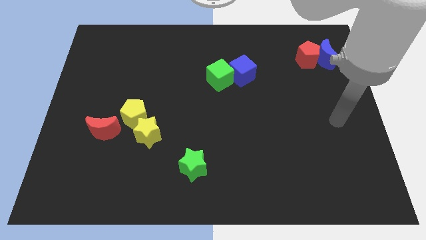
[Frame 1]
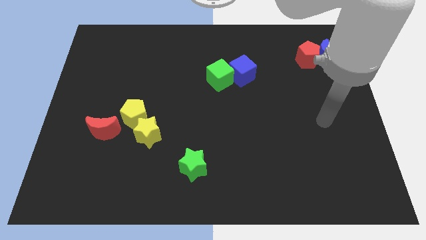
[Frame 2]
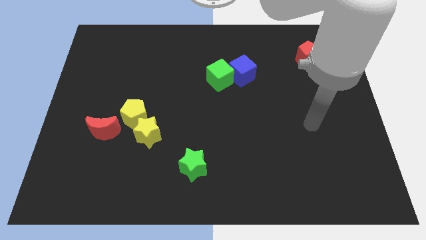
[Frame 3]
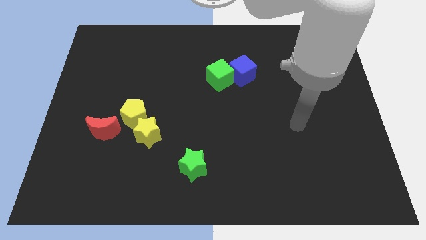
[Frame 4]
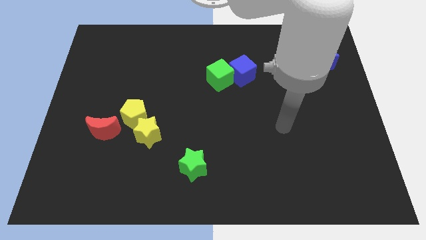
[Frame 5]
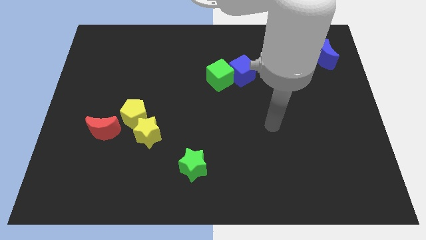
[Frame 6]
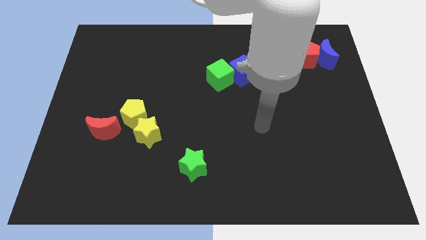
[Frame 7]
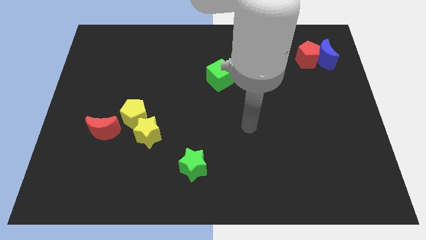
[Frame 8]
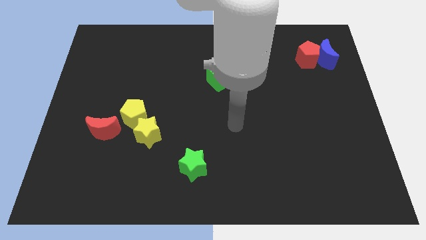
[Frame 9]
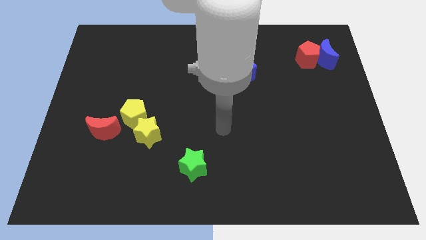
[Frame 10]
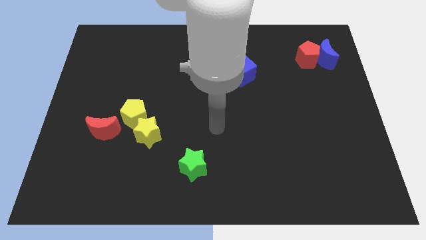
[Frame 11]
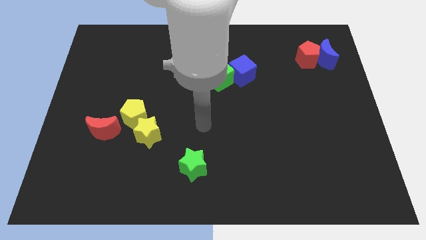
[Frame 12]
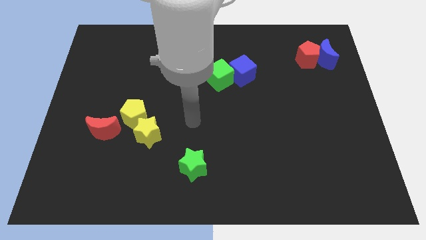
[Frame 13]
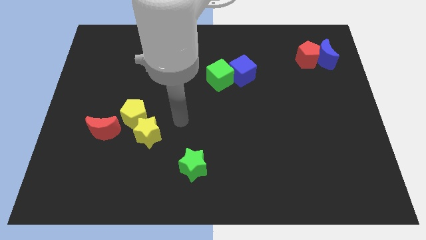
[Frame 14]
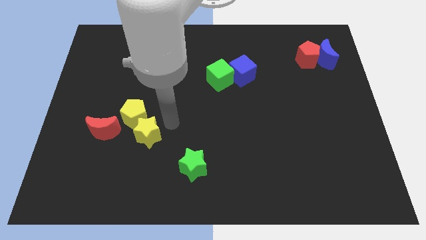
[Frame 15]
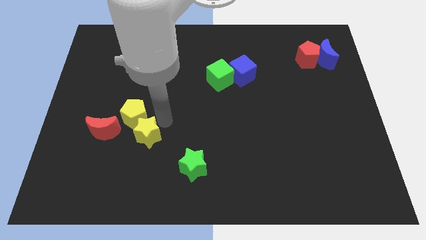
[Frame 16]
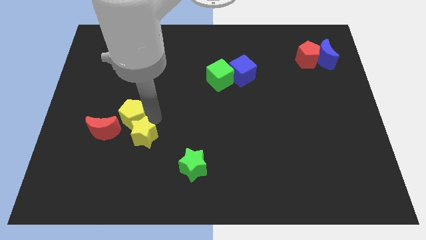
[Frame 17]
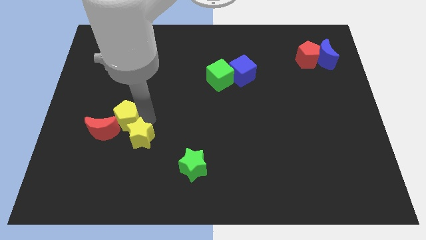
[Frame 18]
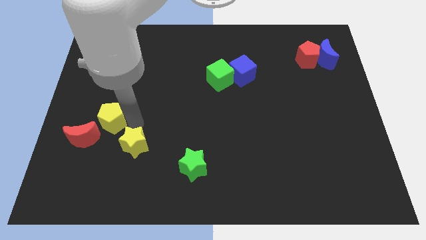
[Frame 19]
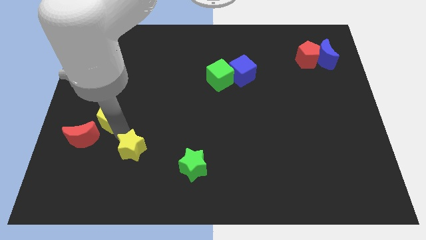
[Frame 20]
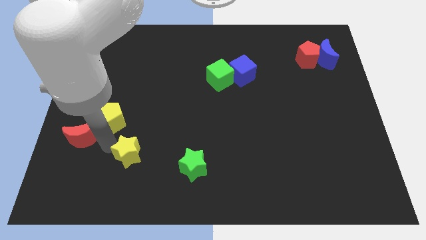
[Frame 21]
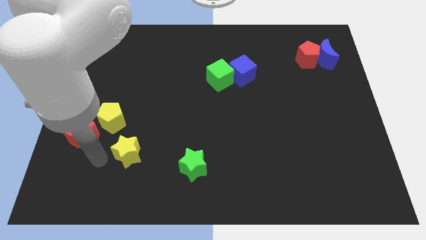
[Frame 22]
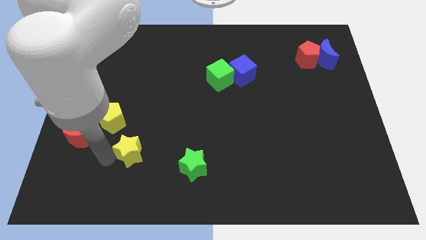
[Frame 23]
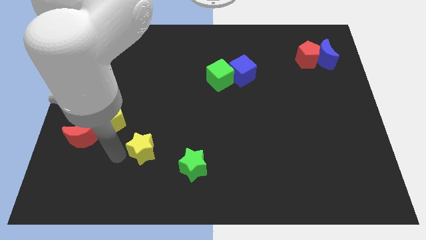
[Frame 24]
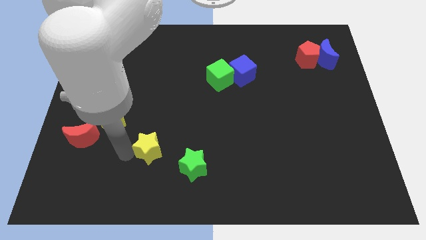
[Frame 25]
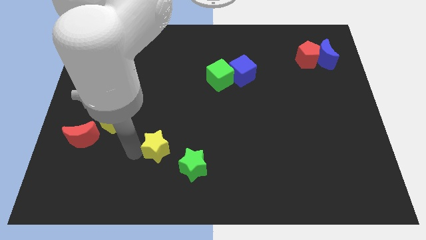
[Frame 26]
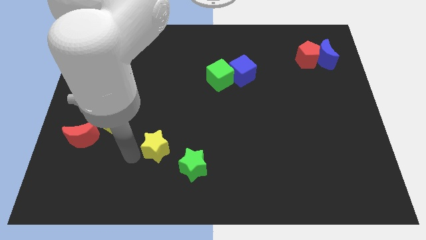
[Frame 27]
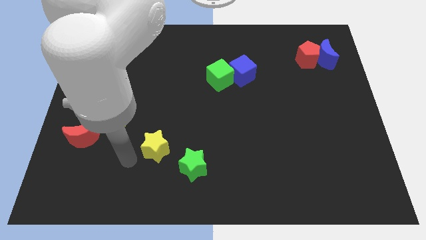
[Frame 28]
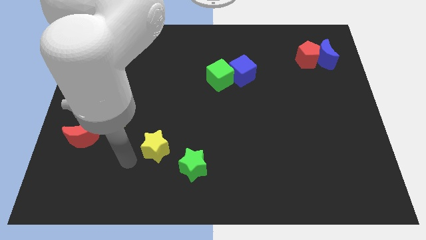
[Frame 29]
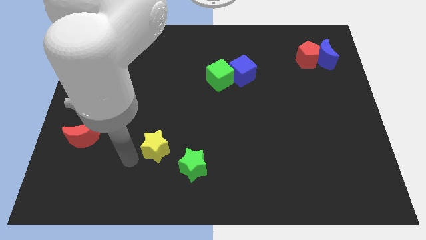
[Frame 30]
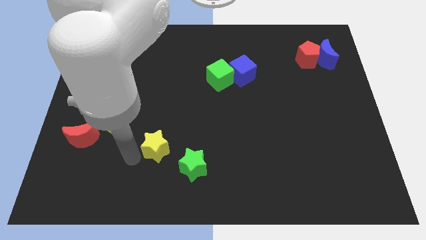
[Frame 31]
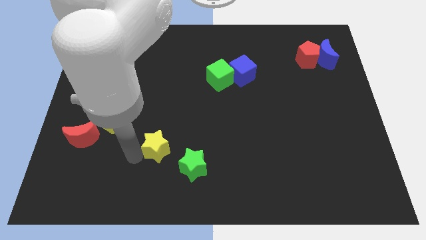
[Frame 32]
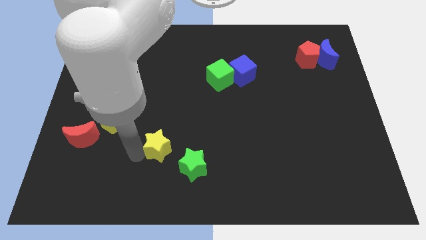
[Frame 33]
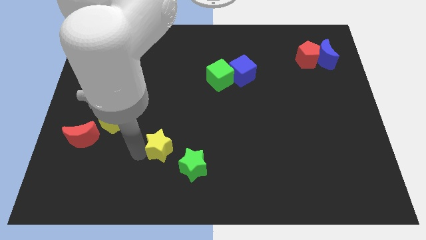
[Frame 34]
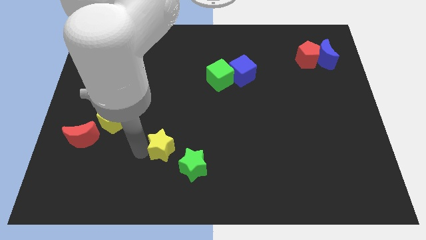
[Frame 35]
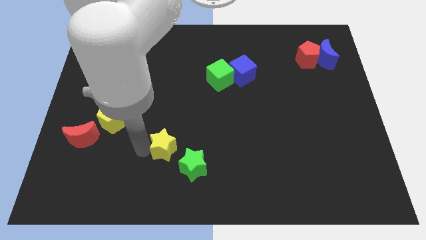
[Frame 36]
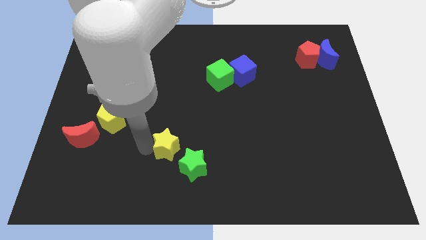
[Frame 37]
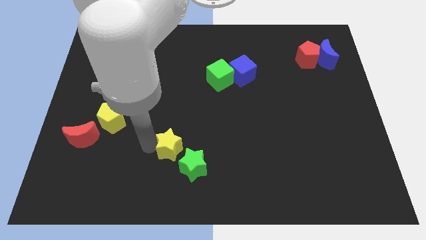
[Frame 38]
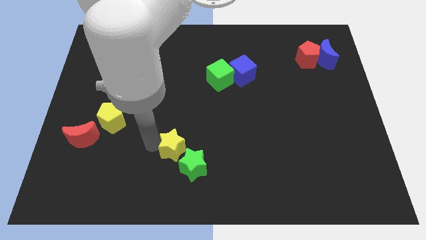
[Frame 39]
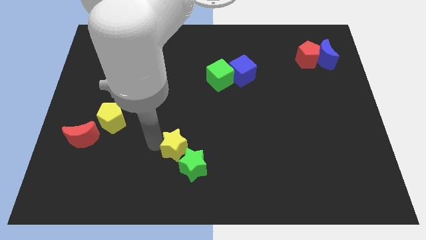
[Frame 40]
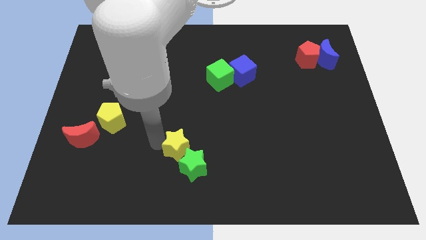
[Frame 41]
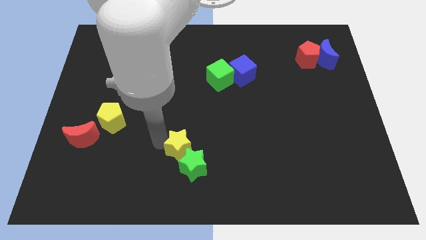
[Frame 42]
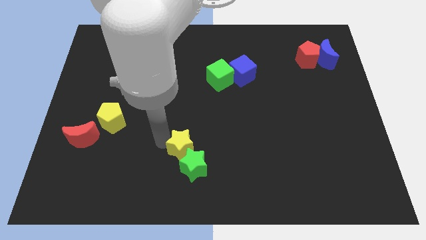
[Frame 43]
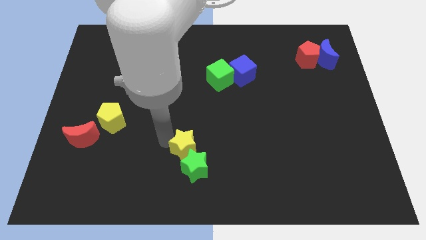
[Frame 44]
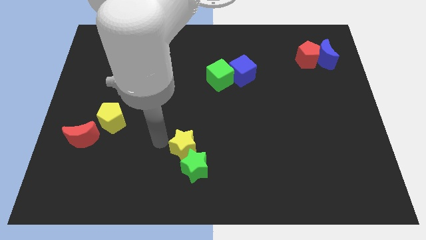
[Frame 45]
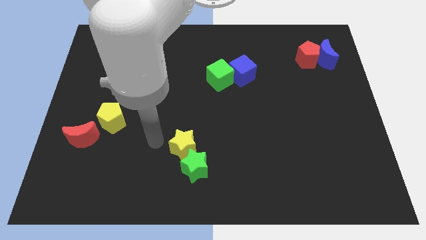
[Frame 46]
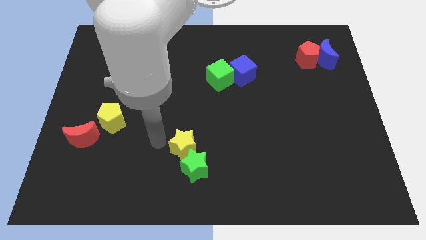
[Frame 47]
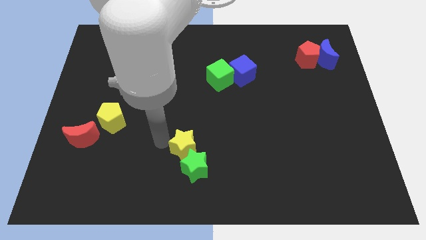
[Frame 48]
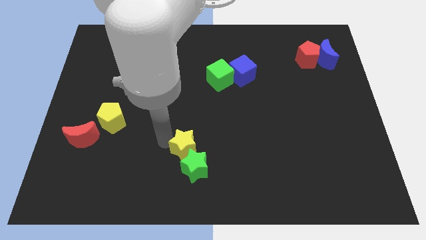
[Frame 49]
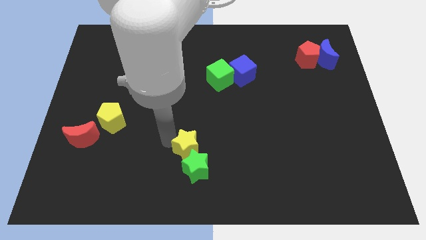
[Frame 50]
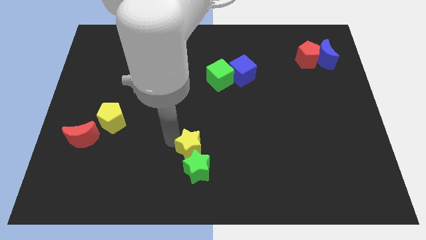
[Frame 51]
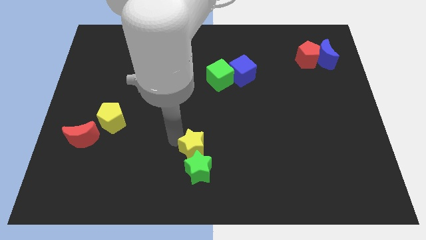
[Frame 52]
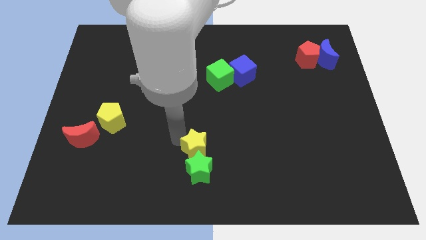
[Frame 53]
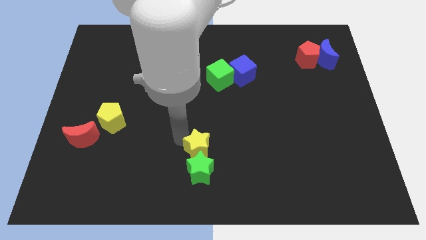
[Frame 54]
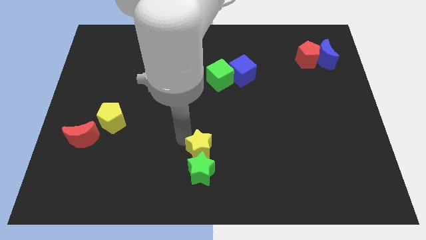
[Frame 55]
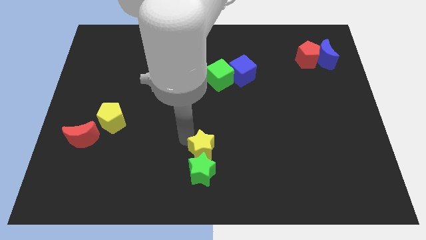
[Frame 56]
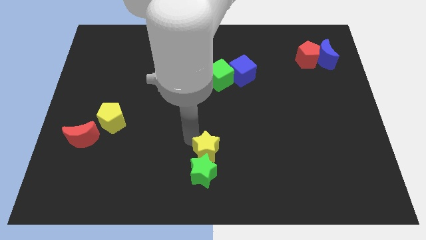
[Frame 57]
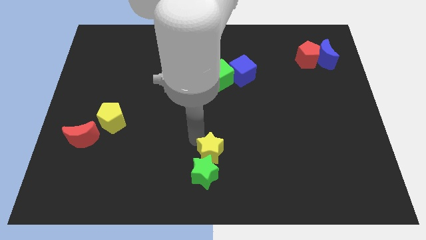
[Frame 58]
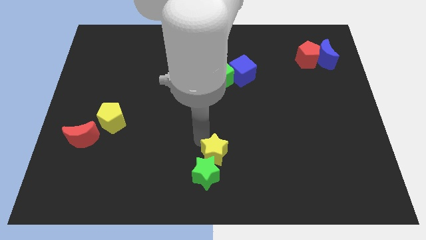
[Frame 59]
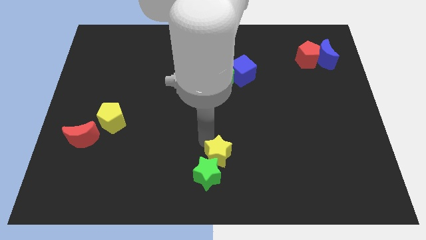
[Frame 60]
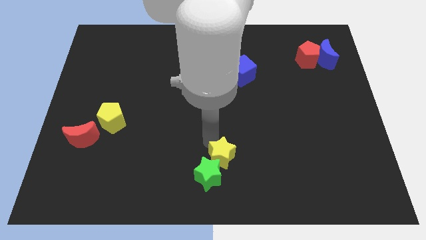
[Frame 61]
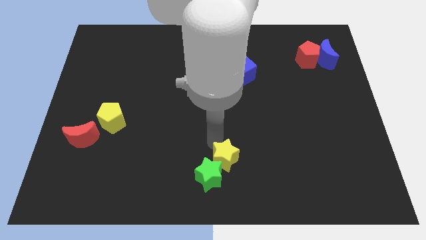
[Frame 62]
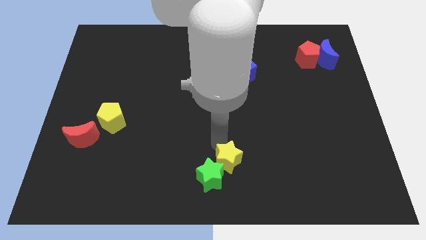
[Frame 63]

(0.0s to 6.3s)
slide the yellow star right of the green star

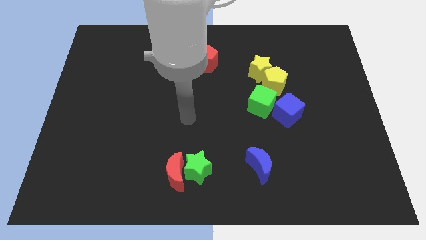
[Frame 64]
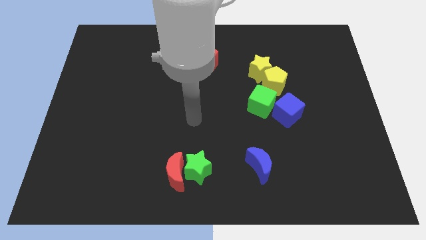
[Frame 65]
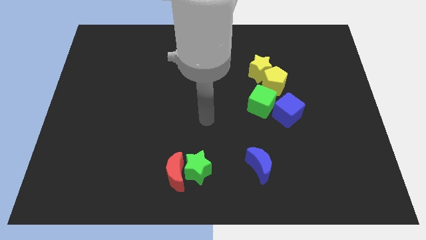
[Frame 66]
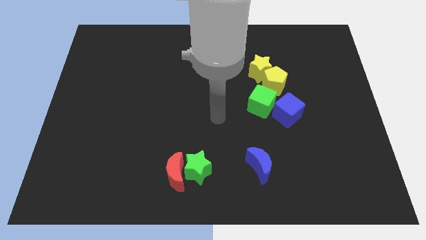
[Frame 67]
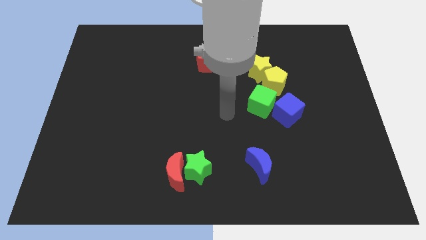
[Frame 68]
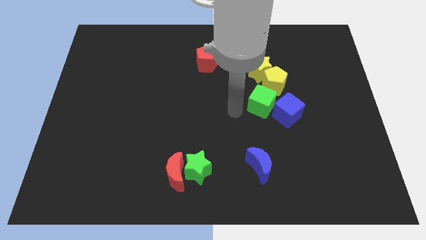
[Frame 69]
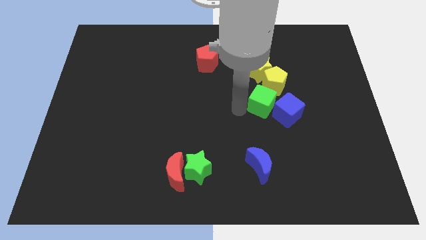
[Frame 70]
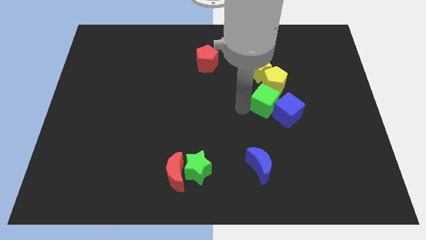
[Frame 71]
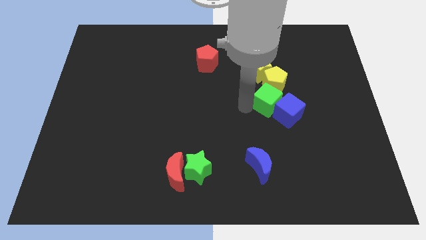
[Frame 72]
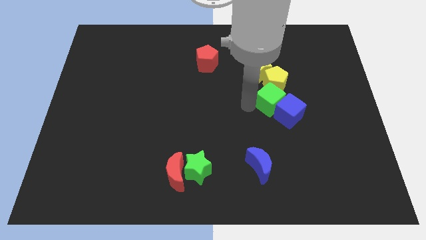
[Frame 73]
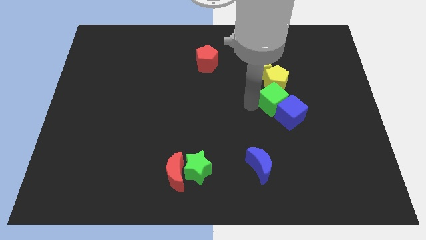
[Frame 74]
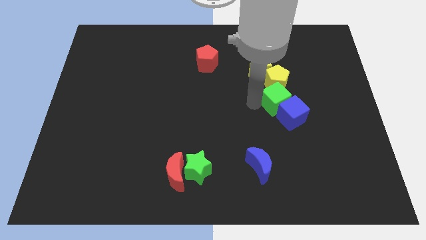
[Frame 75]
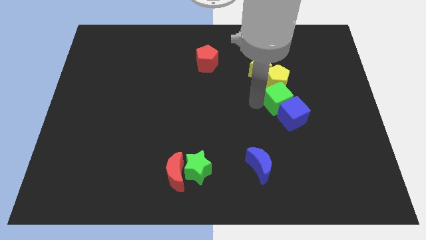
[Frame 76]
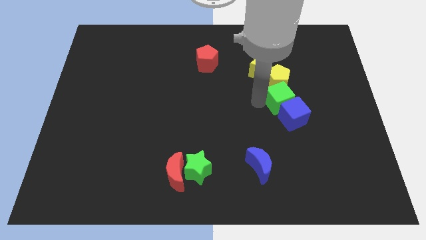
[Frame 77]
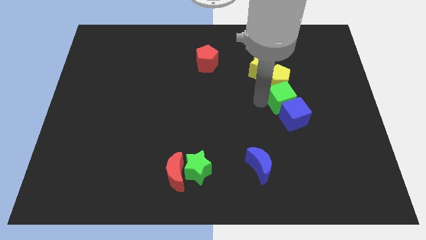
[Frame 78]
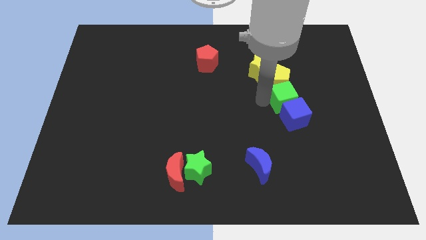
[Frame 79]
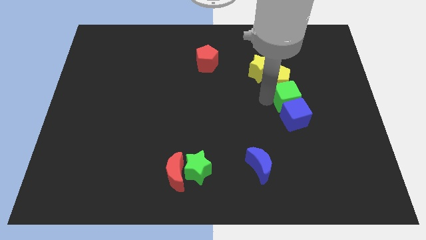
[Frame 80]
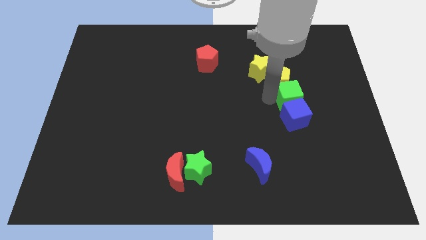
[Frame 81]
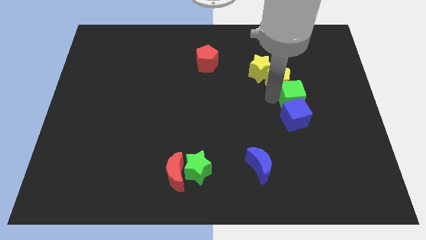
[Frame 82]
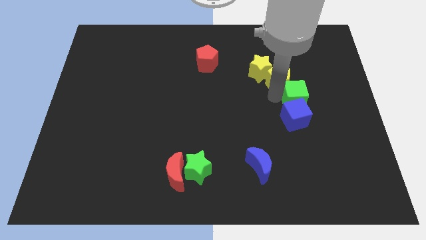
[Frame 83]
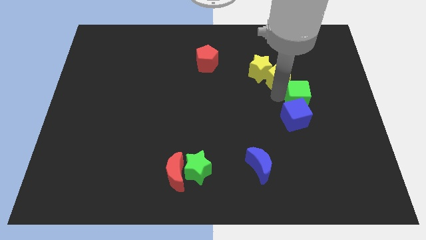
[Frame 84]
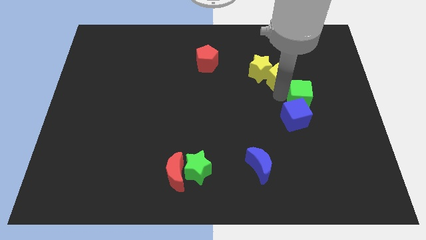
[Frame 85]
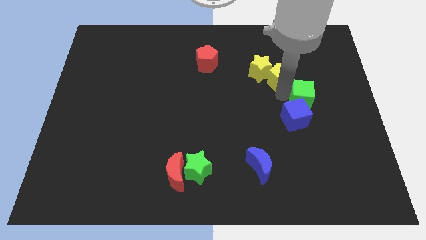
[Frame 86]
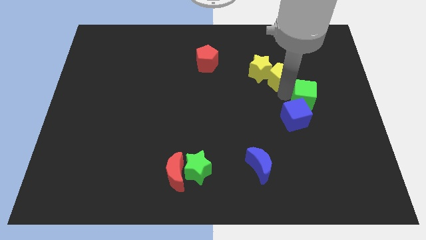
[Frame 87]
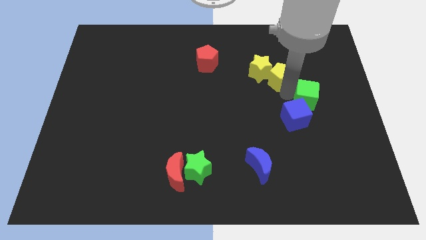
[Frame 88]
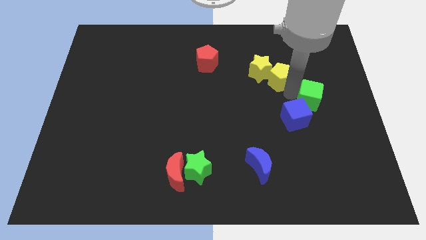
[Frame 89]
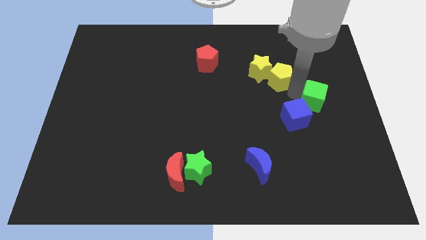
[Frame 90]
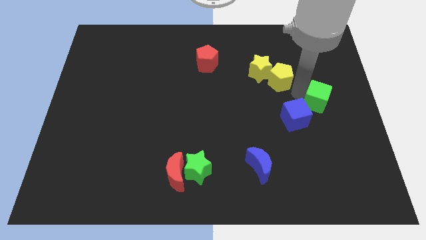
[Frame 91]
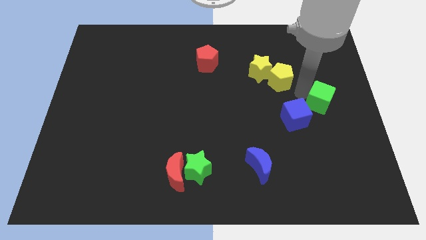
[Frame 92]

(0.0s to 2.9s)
push the green cube to the right side of the blue cube
